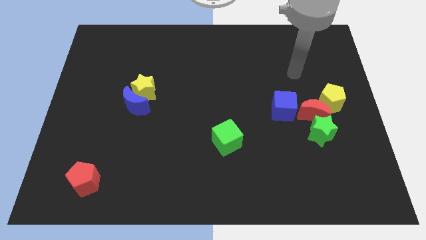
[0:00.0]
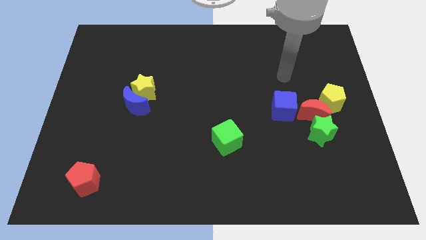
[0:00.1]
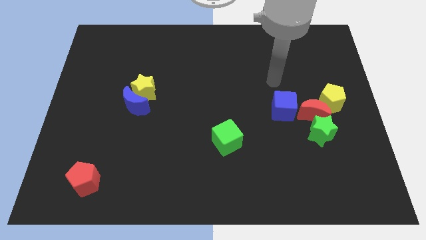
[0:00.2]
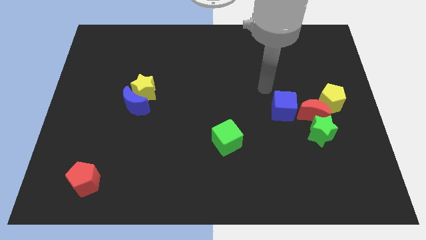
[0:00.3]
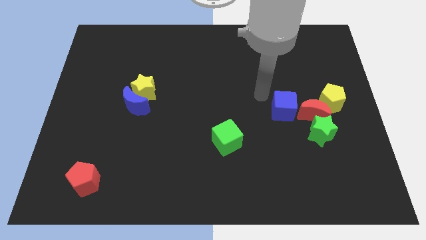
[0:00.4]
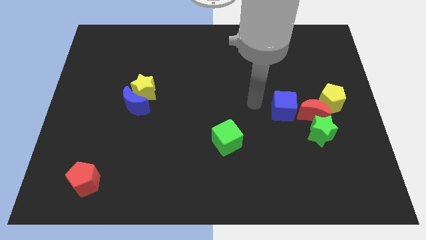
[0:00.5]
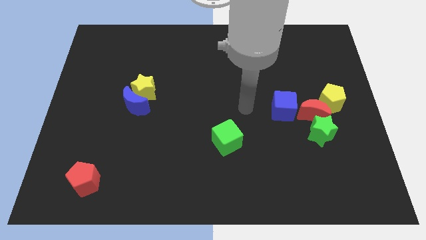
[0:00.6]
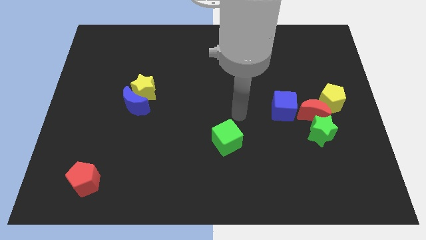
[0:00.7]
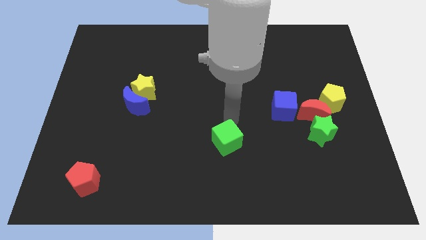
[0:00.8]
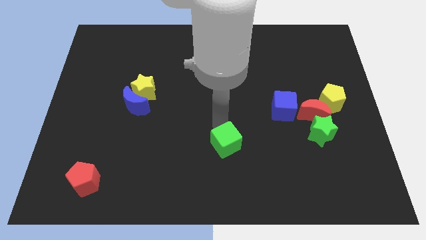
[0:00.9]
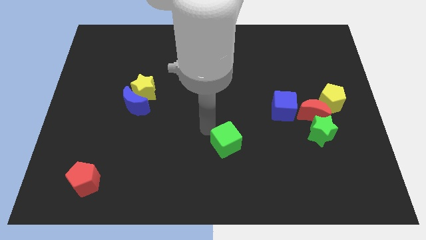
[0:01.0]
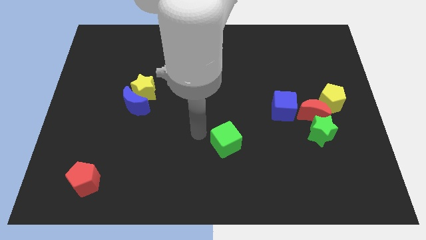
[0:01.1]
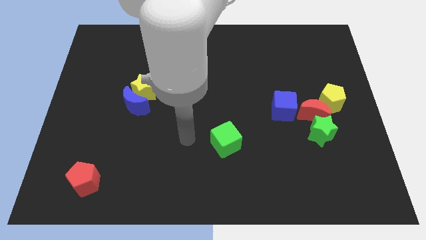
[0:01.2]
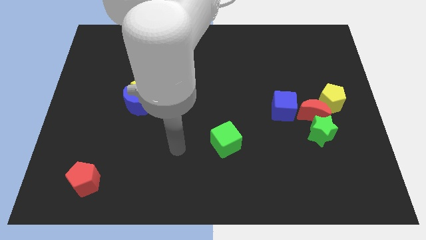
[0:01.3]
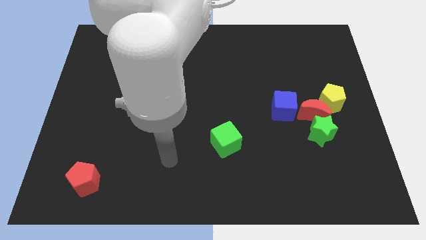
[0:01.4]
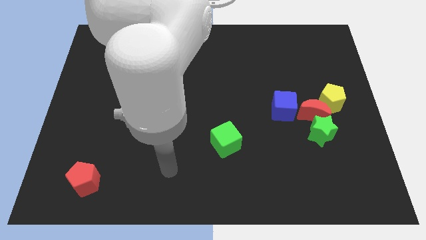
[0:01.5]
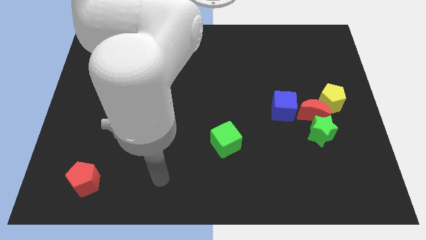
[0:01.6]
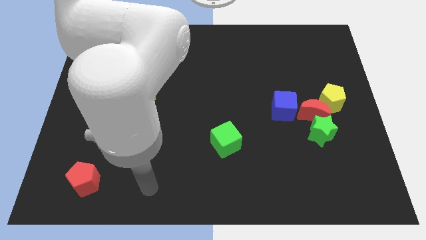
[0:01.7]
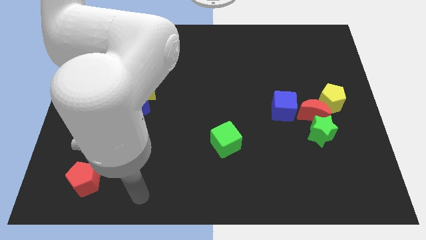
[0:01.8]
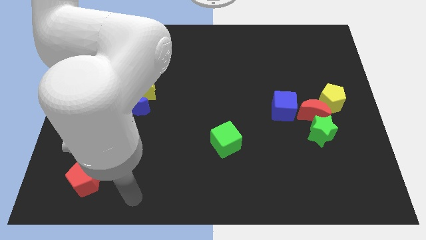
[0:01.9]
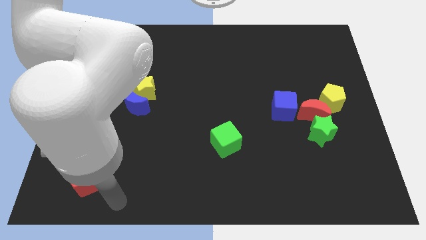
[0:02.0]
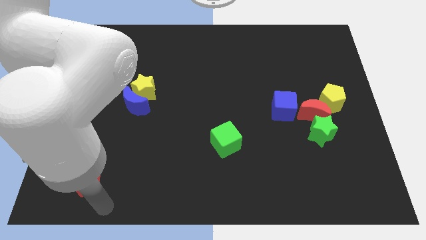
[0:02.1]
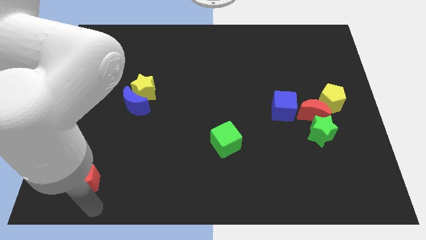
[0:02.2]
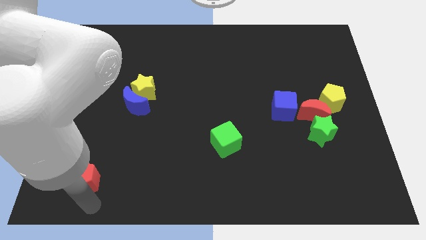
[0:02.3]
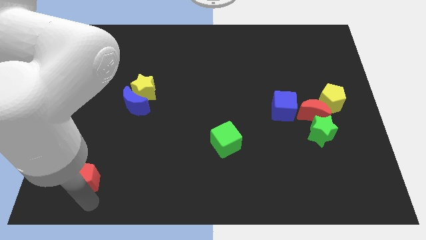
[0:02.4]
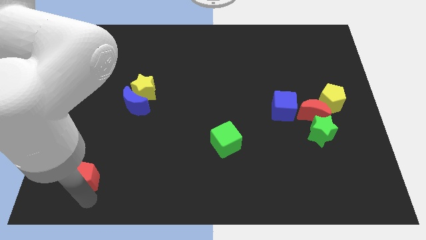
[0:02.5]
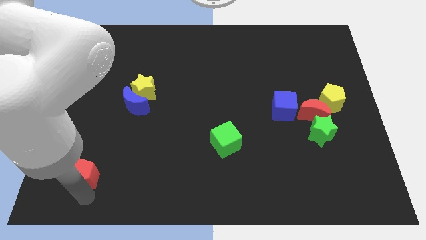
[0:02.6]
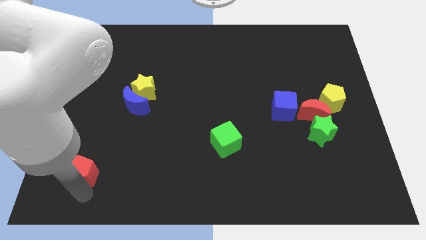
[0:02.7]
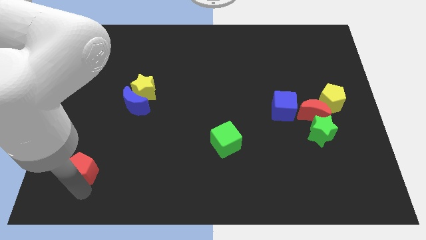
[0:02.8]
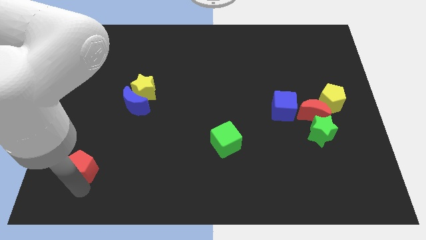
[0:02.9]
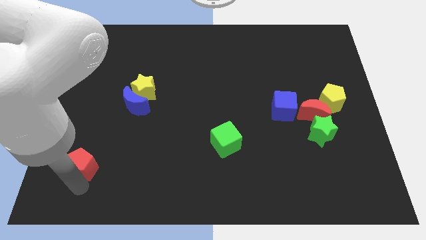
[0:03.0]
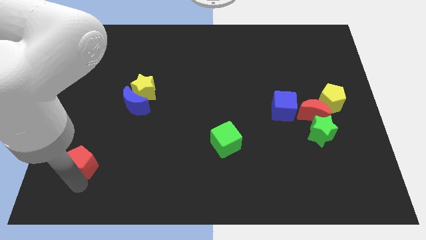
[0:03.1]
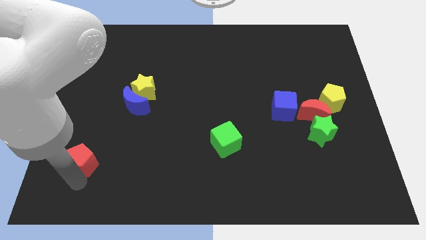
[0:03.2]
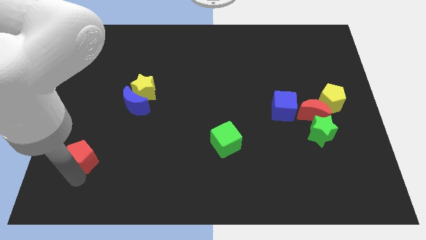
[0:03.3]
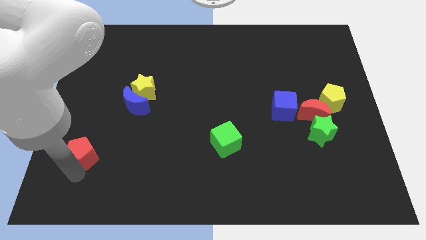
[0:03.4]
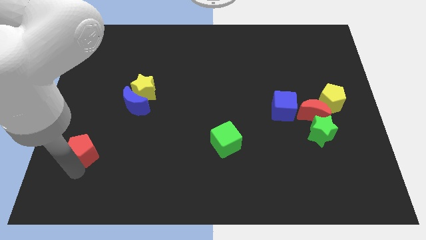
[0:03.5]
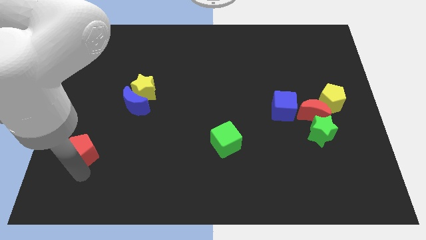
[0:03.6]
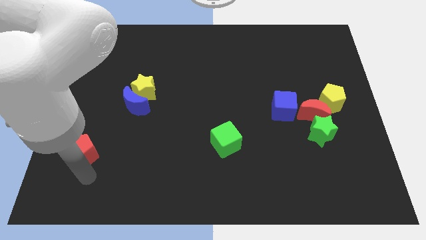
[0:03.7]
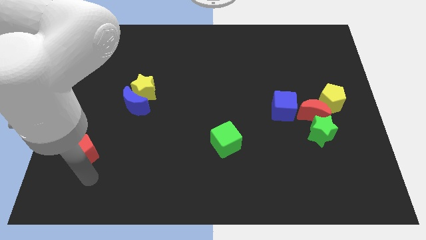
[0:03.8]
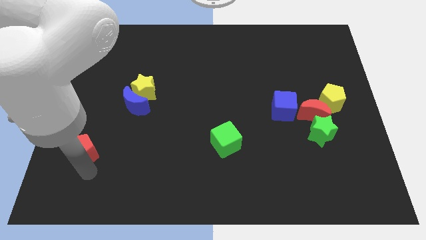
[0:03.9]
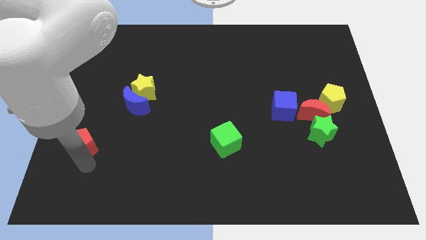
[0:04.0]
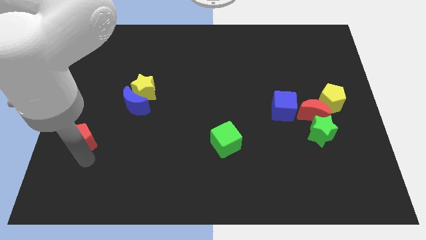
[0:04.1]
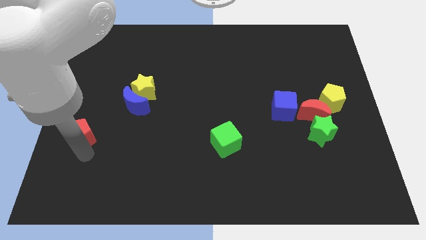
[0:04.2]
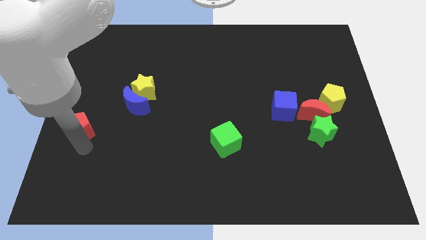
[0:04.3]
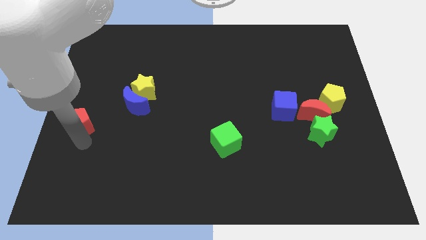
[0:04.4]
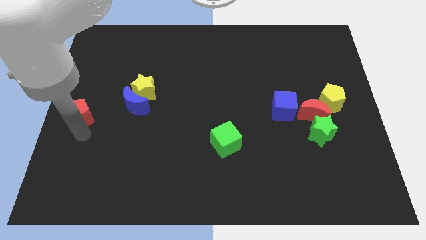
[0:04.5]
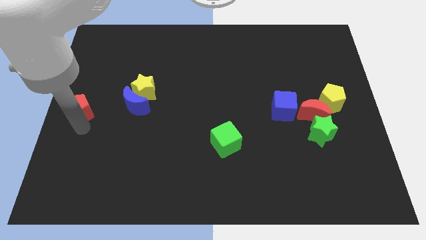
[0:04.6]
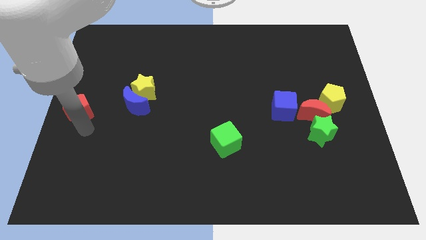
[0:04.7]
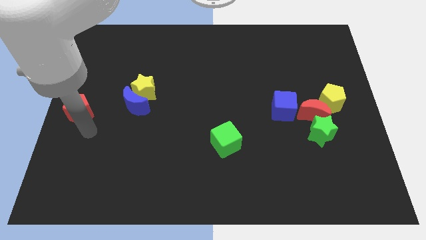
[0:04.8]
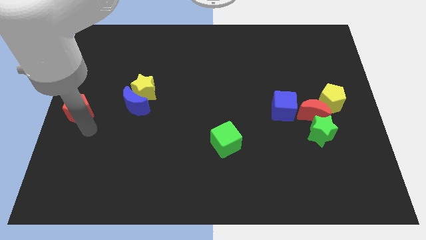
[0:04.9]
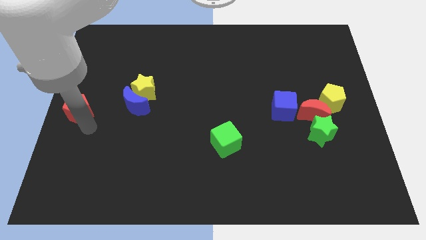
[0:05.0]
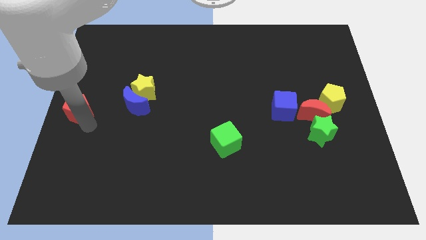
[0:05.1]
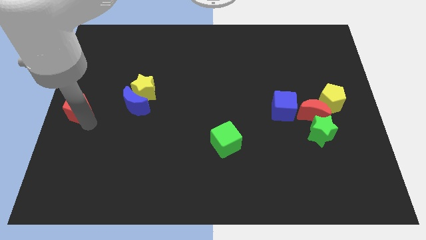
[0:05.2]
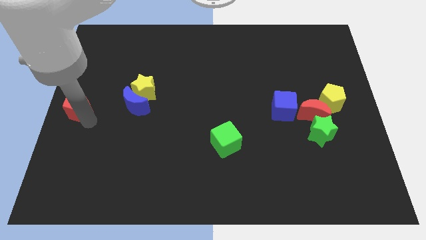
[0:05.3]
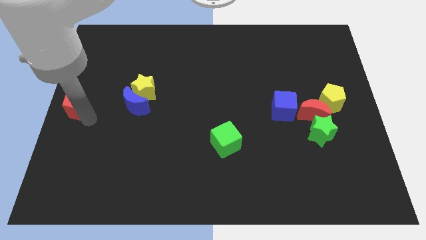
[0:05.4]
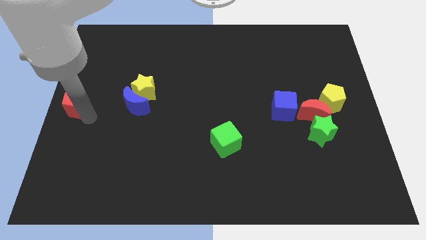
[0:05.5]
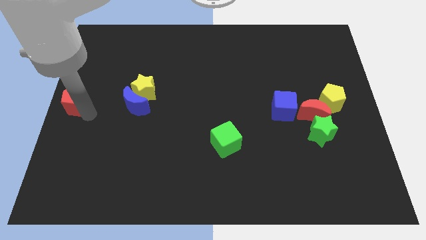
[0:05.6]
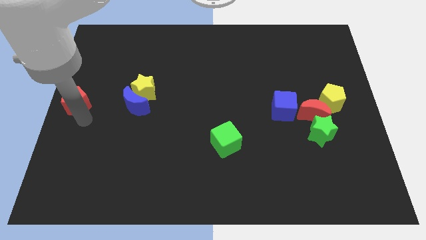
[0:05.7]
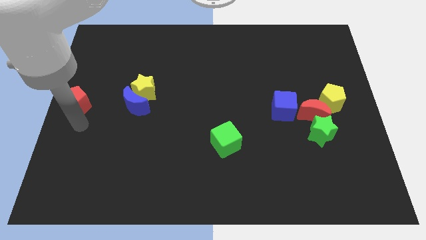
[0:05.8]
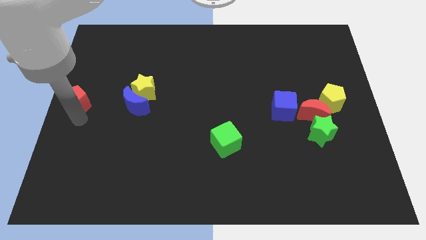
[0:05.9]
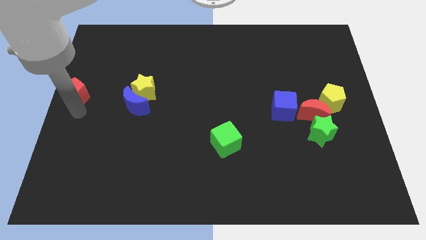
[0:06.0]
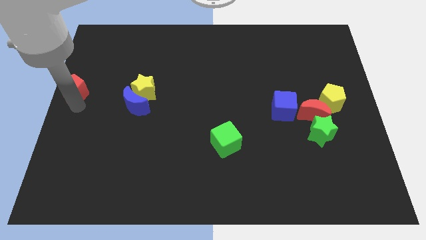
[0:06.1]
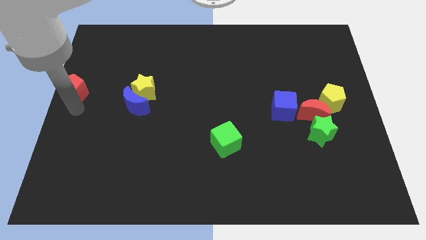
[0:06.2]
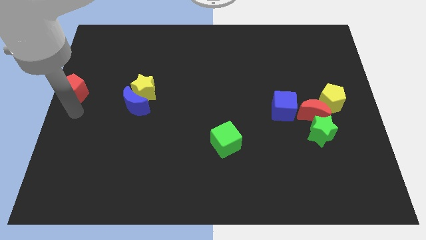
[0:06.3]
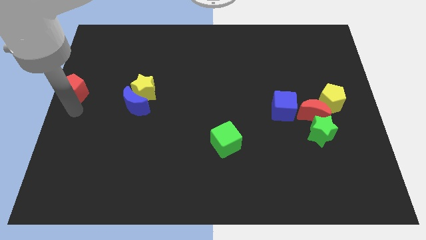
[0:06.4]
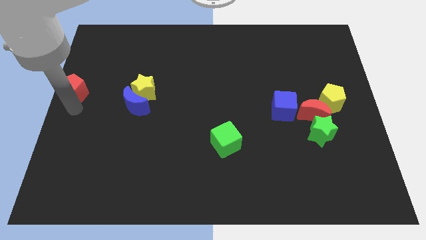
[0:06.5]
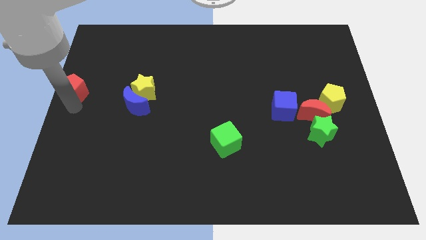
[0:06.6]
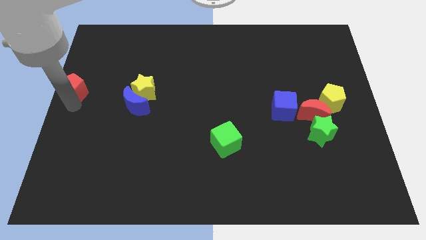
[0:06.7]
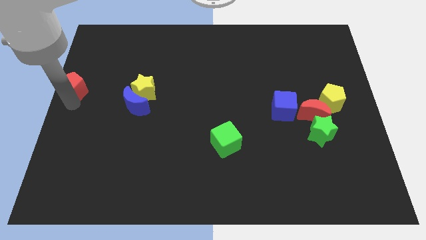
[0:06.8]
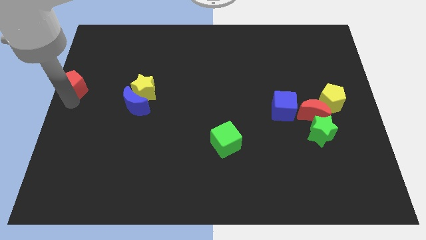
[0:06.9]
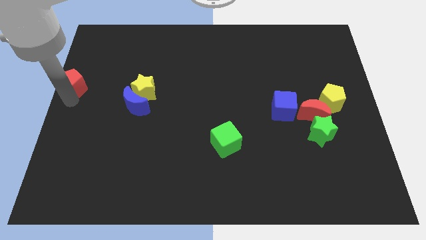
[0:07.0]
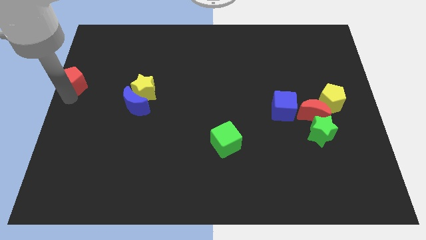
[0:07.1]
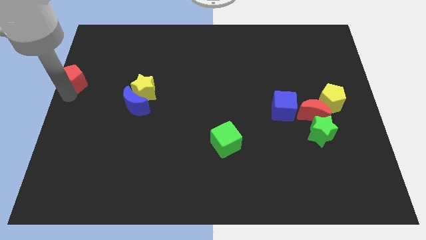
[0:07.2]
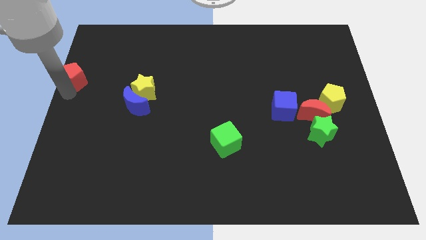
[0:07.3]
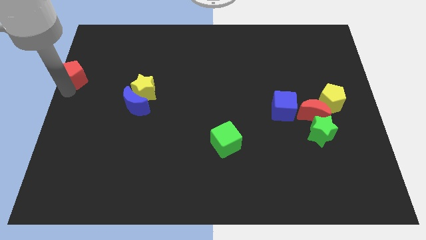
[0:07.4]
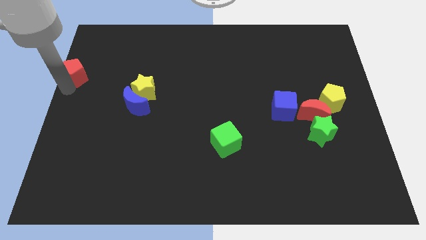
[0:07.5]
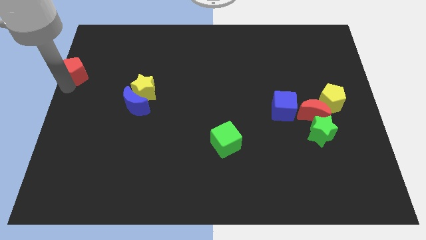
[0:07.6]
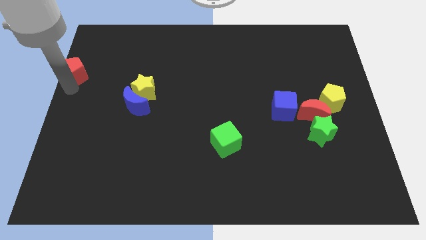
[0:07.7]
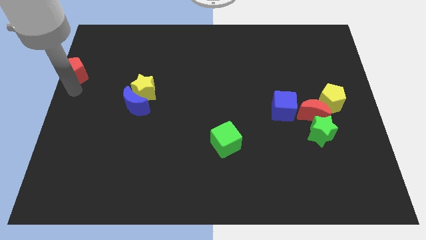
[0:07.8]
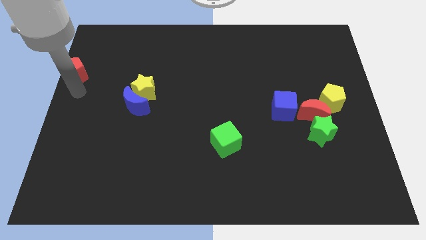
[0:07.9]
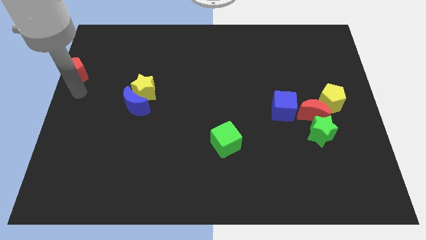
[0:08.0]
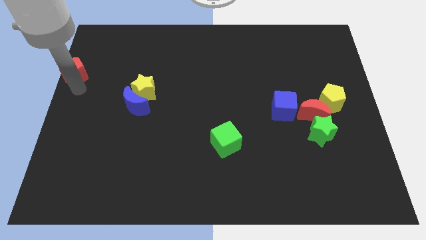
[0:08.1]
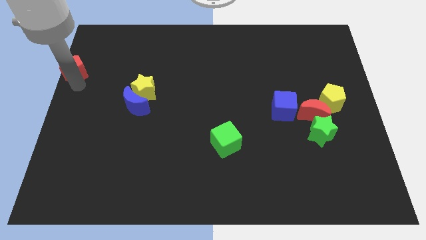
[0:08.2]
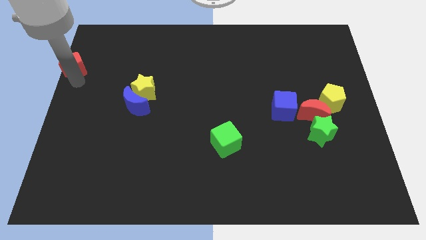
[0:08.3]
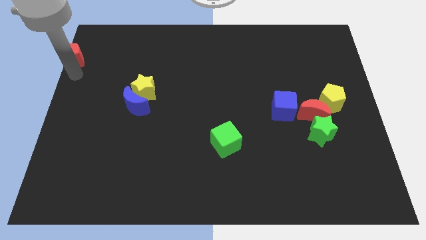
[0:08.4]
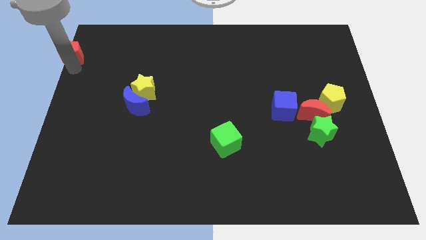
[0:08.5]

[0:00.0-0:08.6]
slide the red pentagon to the top left
